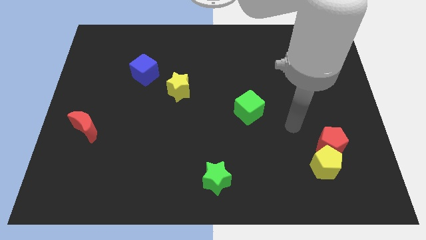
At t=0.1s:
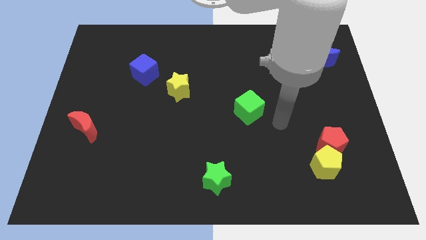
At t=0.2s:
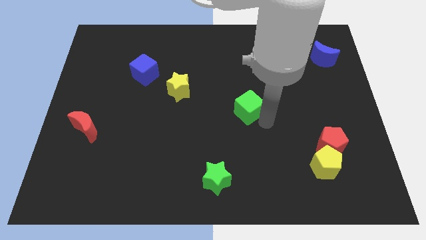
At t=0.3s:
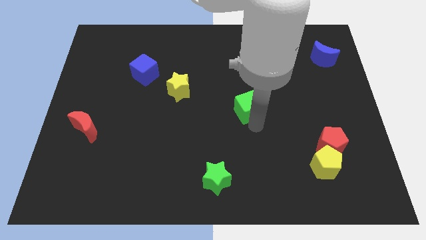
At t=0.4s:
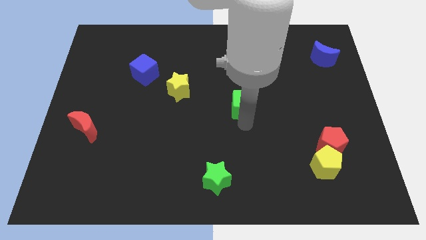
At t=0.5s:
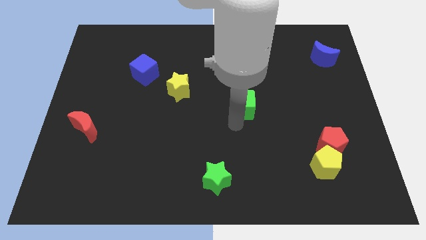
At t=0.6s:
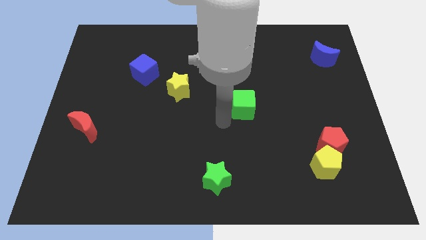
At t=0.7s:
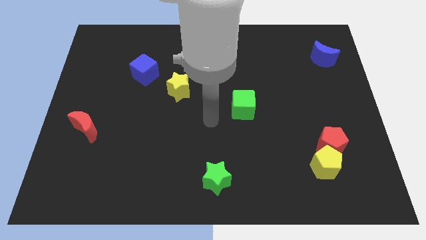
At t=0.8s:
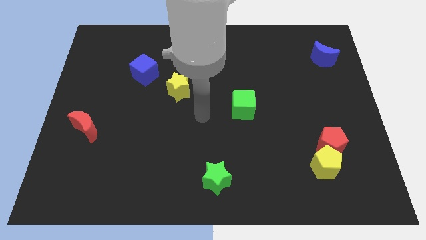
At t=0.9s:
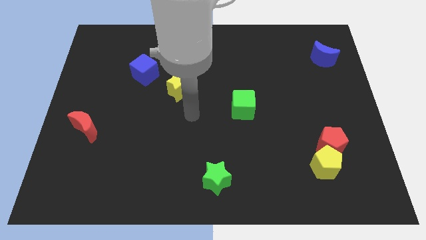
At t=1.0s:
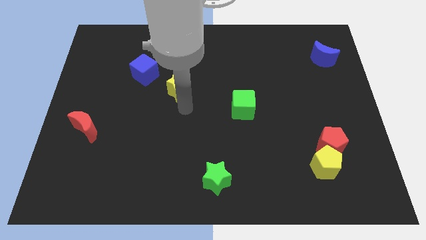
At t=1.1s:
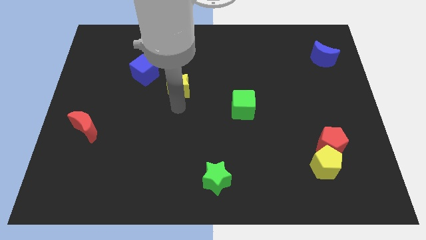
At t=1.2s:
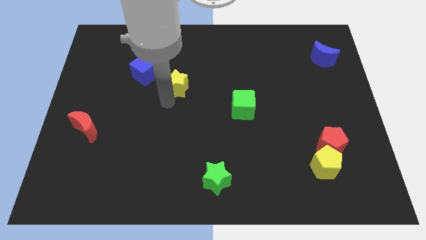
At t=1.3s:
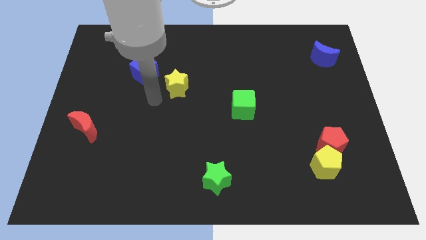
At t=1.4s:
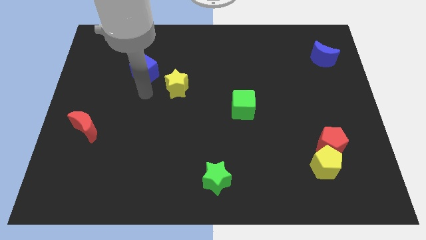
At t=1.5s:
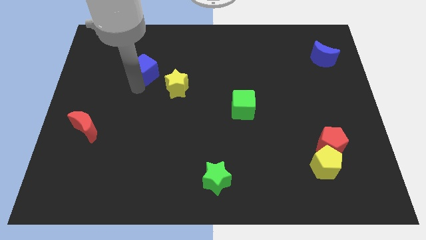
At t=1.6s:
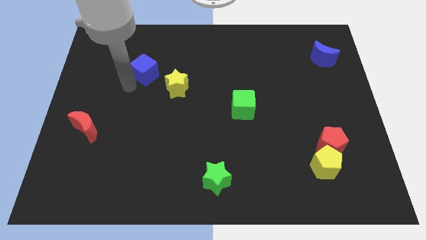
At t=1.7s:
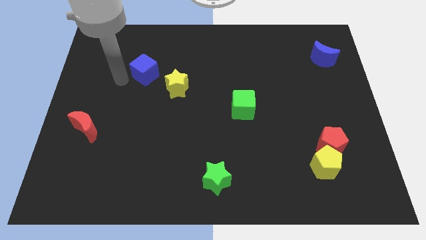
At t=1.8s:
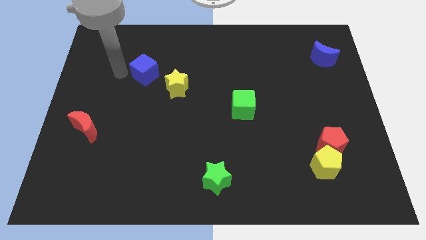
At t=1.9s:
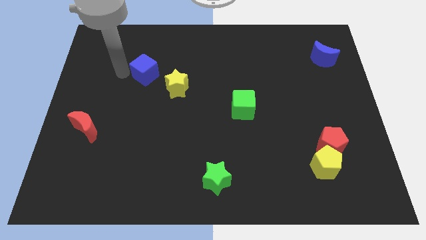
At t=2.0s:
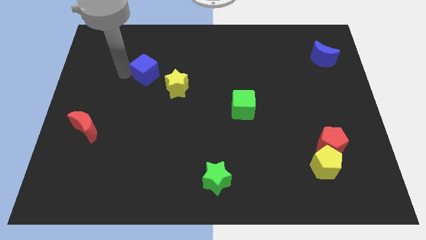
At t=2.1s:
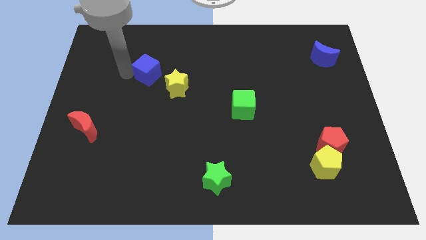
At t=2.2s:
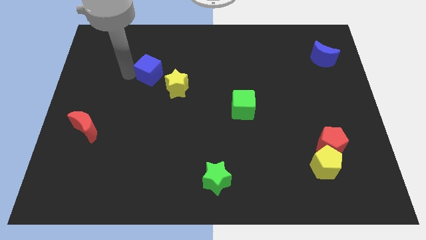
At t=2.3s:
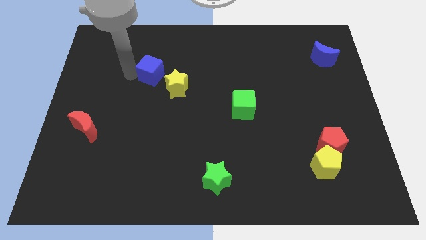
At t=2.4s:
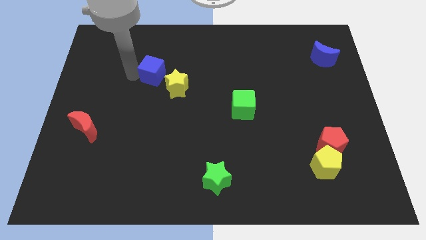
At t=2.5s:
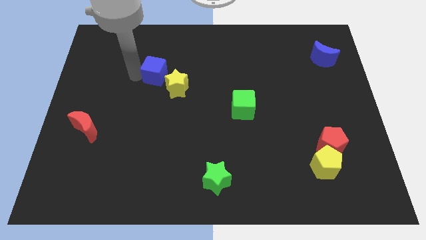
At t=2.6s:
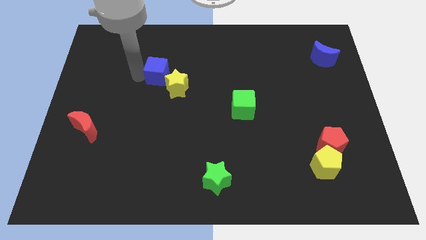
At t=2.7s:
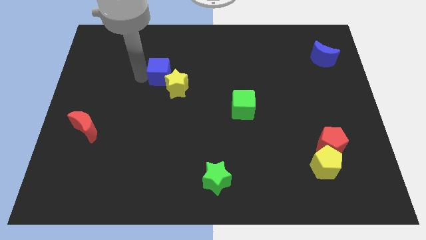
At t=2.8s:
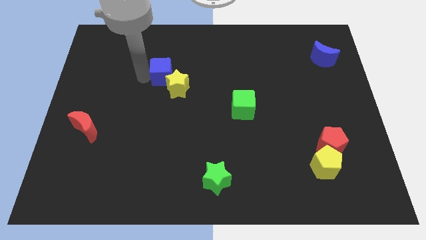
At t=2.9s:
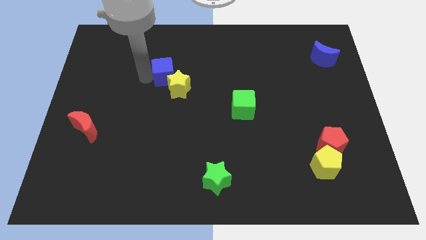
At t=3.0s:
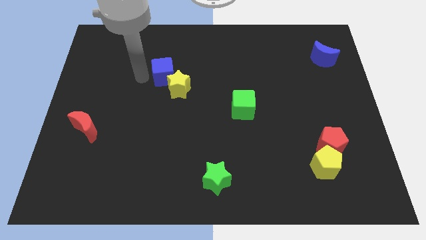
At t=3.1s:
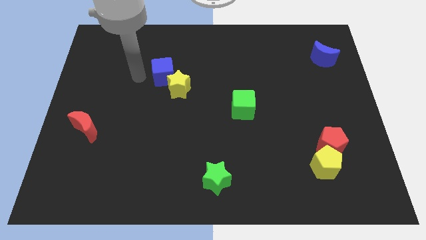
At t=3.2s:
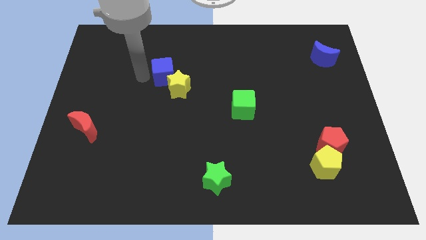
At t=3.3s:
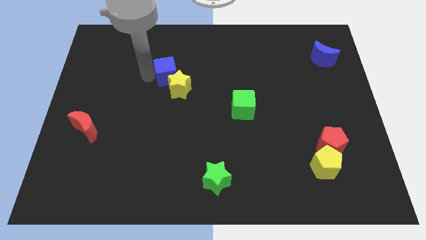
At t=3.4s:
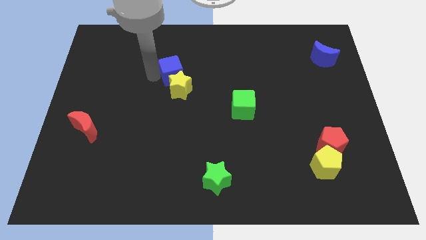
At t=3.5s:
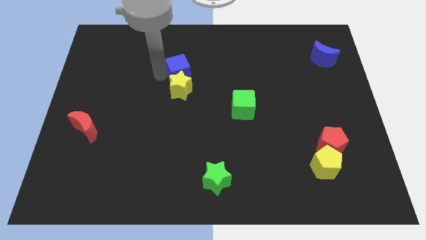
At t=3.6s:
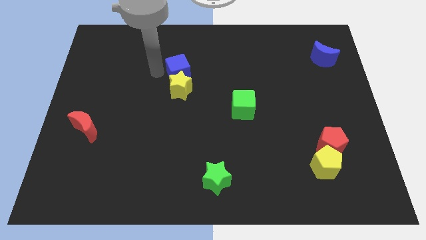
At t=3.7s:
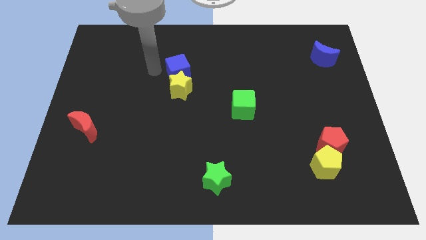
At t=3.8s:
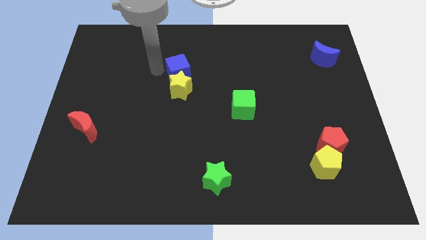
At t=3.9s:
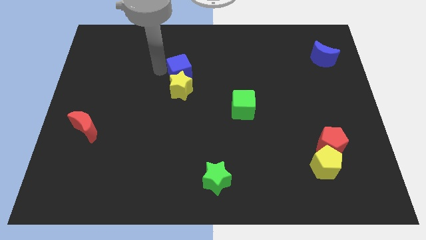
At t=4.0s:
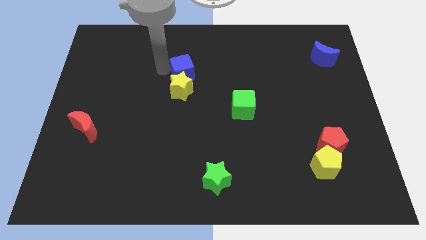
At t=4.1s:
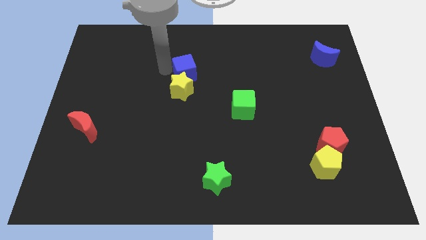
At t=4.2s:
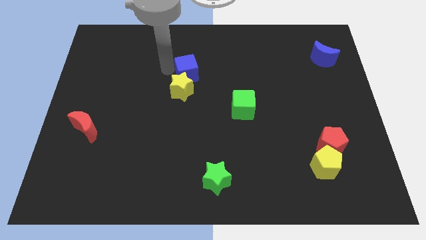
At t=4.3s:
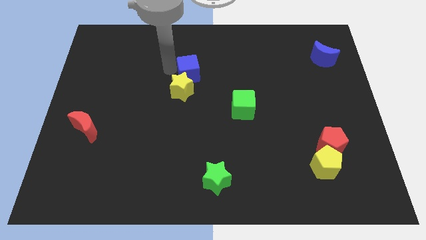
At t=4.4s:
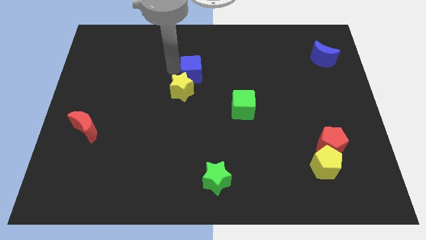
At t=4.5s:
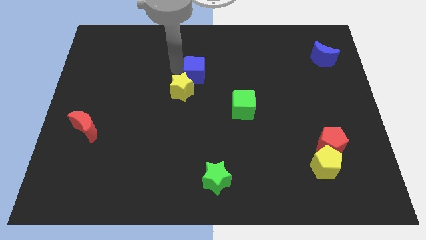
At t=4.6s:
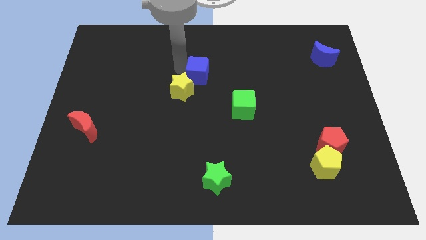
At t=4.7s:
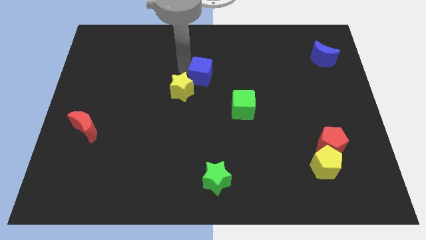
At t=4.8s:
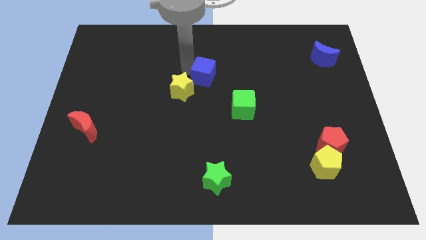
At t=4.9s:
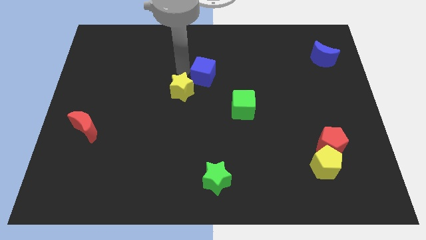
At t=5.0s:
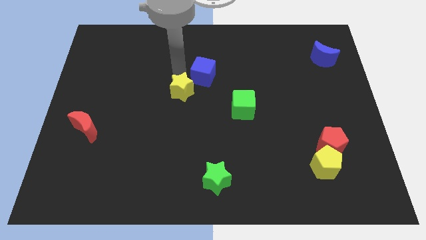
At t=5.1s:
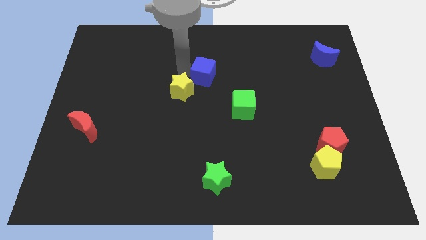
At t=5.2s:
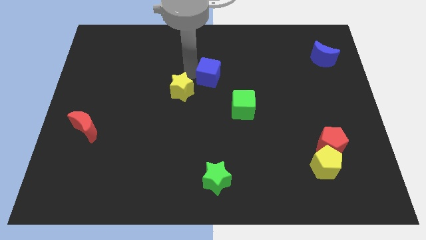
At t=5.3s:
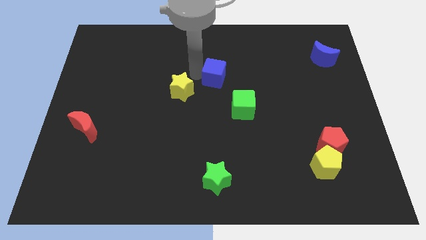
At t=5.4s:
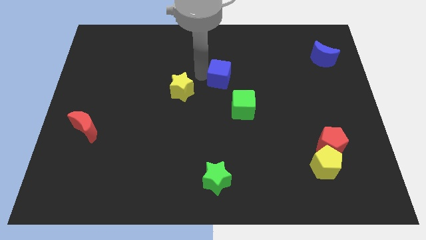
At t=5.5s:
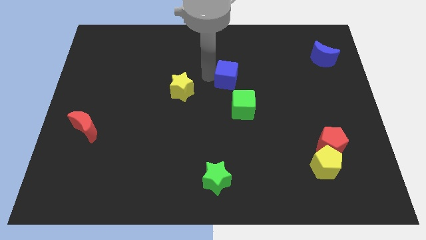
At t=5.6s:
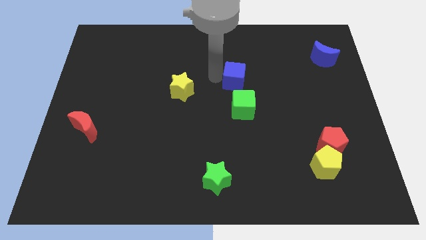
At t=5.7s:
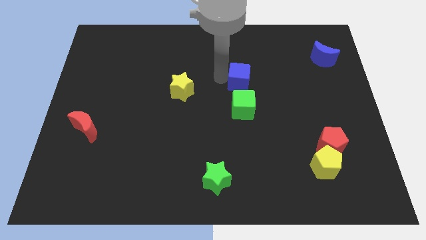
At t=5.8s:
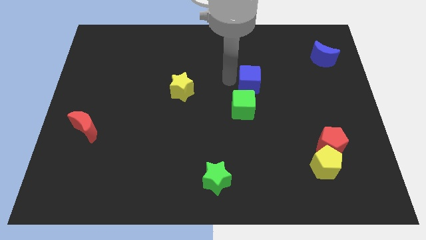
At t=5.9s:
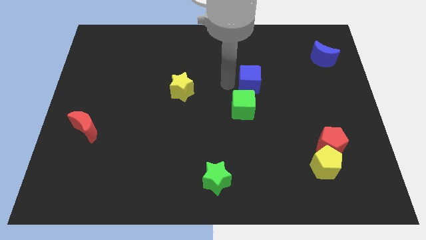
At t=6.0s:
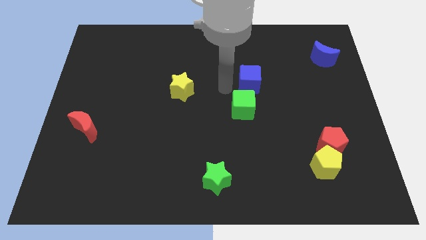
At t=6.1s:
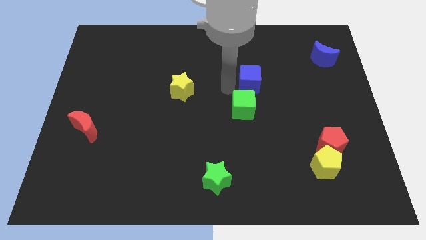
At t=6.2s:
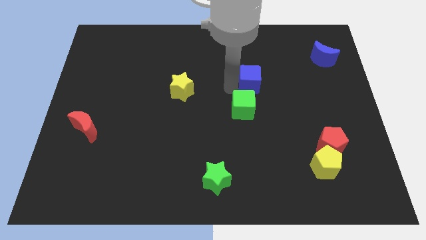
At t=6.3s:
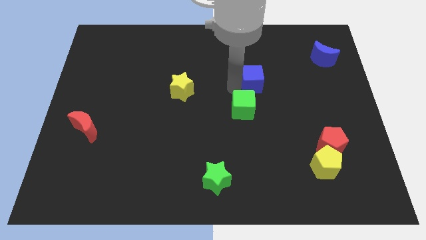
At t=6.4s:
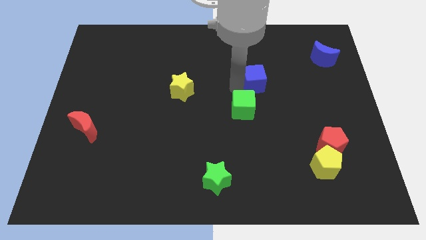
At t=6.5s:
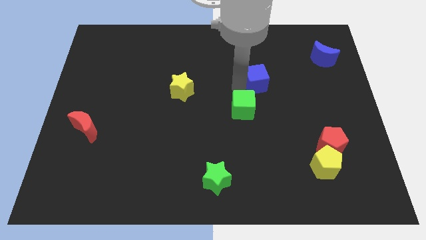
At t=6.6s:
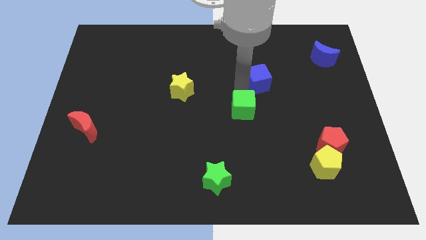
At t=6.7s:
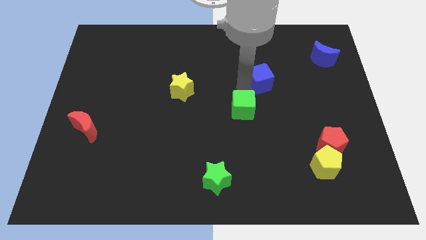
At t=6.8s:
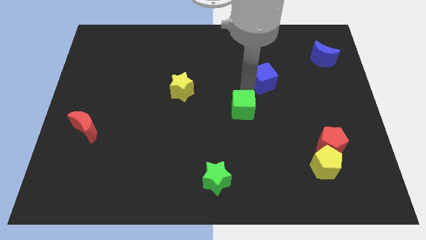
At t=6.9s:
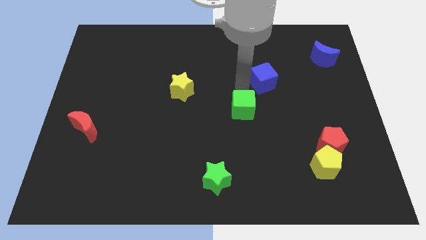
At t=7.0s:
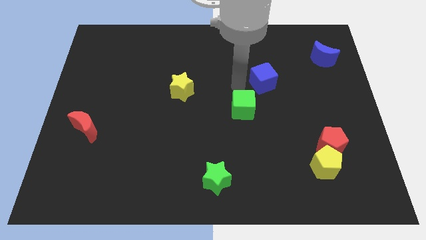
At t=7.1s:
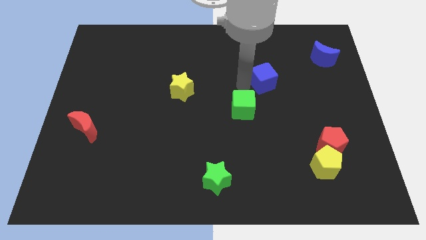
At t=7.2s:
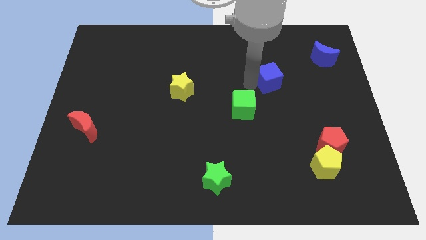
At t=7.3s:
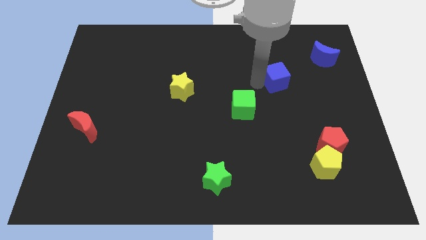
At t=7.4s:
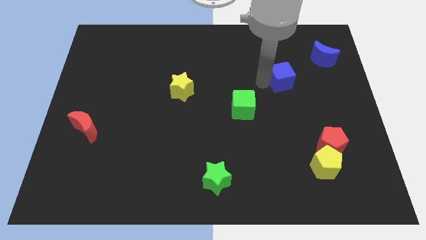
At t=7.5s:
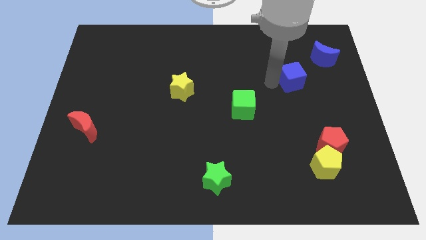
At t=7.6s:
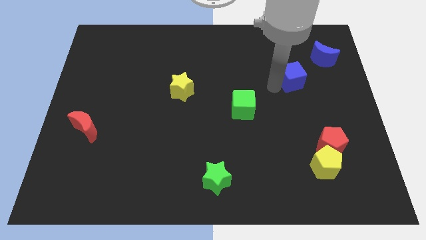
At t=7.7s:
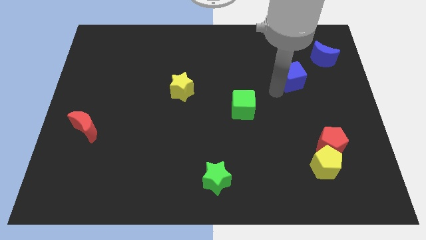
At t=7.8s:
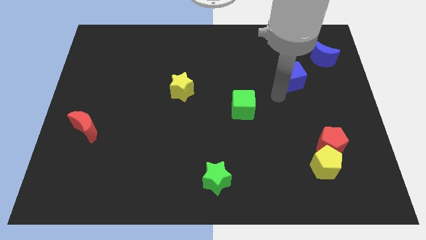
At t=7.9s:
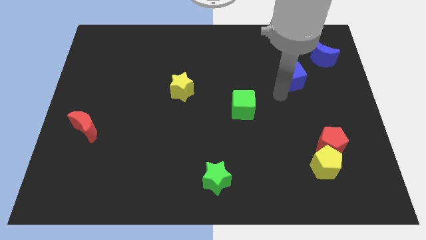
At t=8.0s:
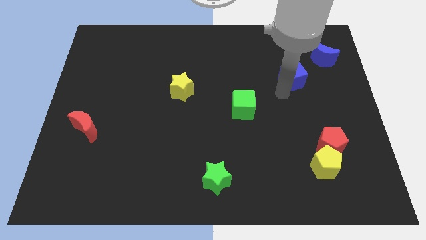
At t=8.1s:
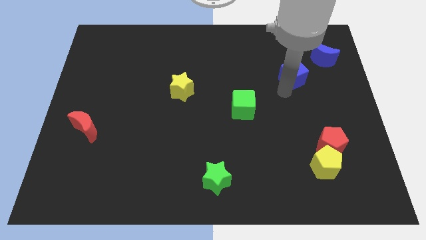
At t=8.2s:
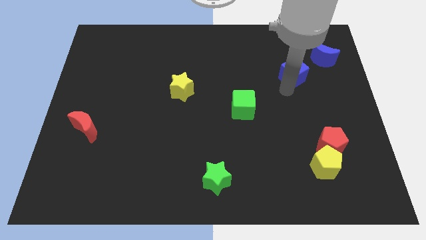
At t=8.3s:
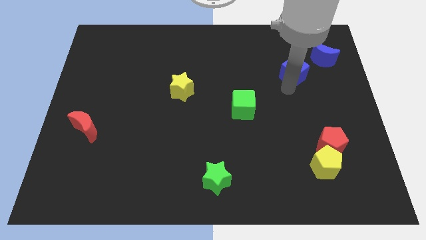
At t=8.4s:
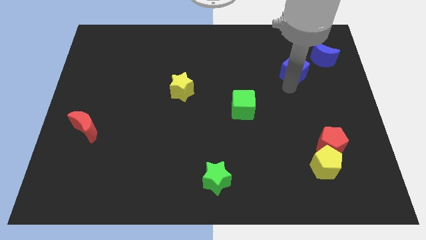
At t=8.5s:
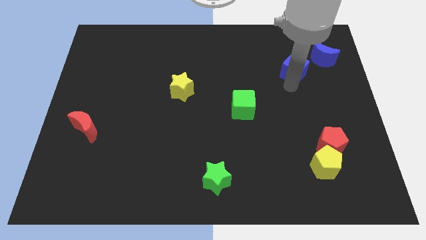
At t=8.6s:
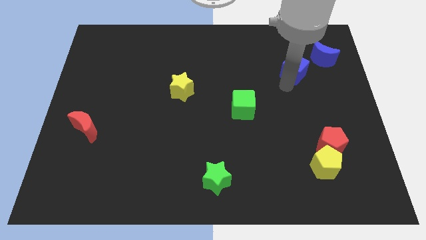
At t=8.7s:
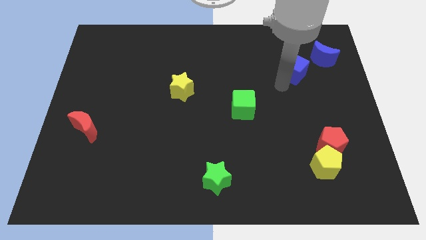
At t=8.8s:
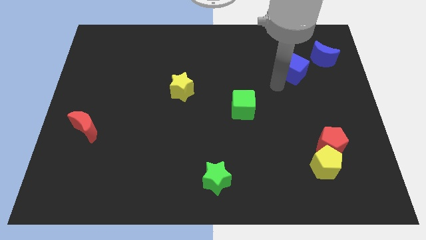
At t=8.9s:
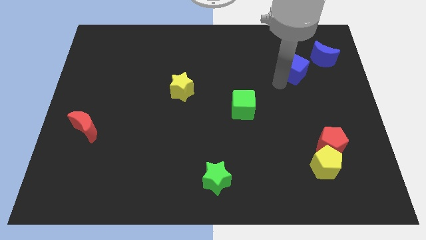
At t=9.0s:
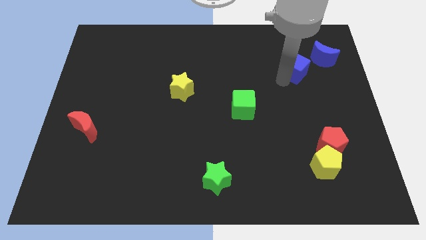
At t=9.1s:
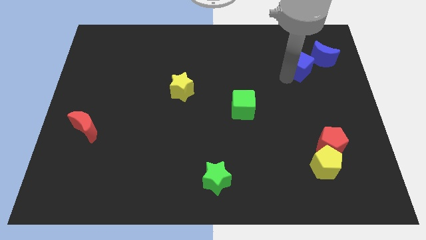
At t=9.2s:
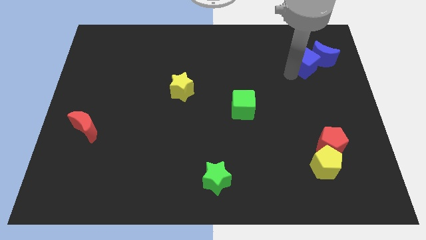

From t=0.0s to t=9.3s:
slide the blue cube to the blue moon
